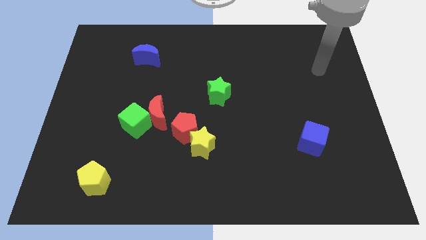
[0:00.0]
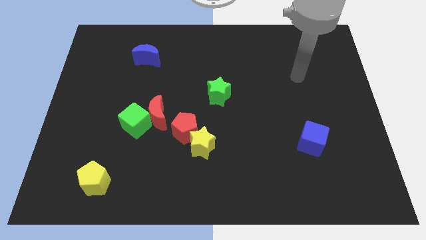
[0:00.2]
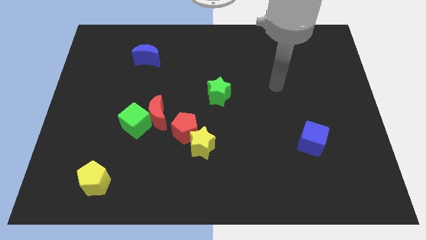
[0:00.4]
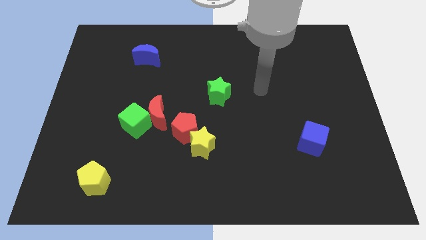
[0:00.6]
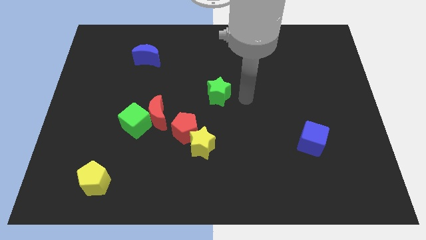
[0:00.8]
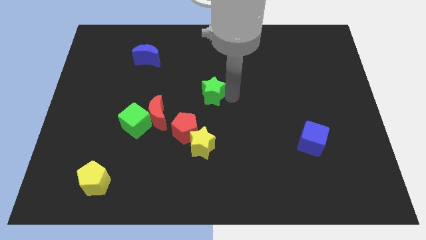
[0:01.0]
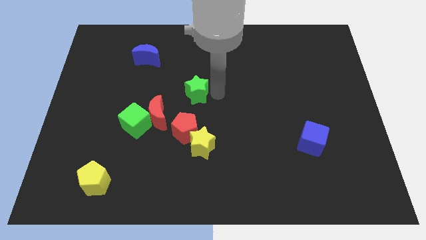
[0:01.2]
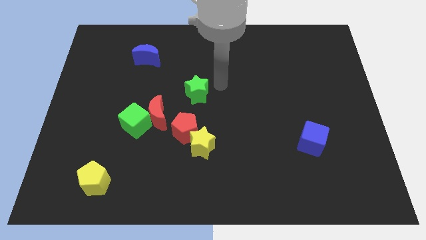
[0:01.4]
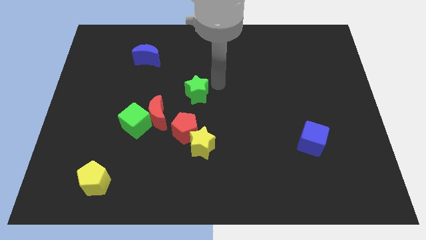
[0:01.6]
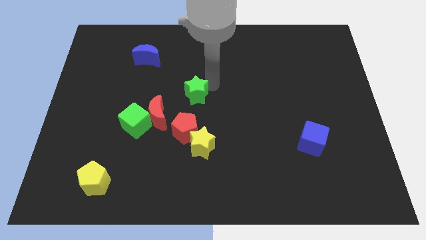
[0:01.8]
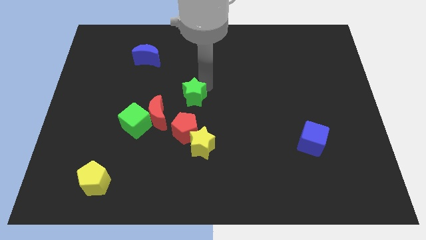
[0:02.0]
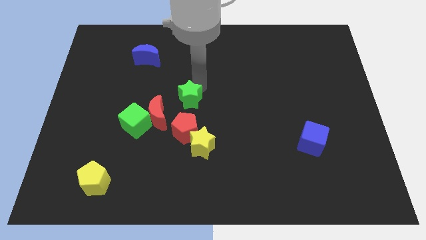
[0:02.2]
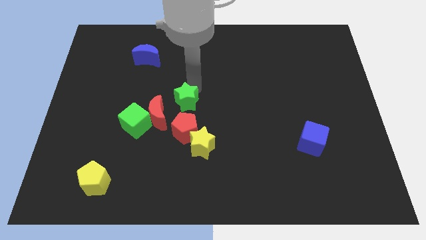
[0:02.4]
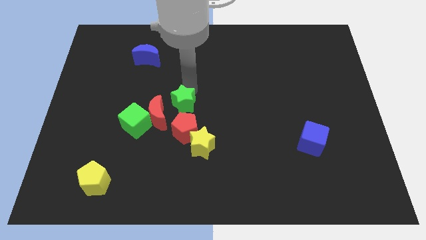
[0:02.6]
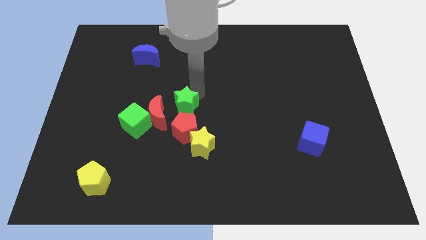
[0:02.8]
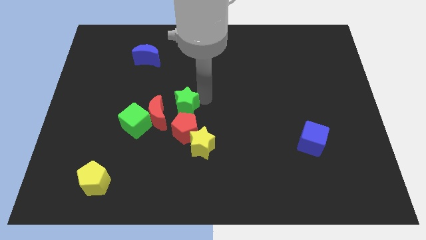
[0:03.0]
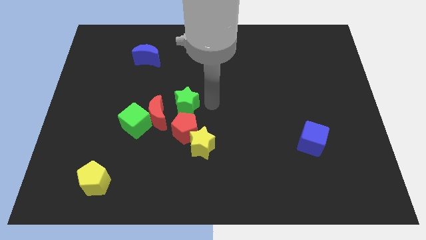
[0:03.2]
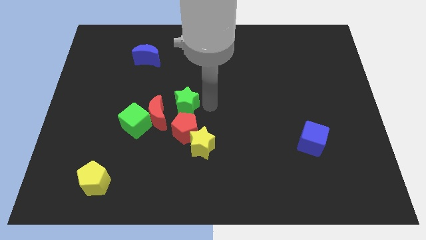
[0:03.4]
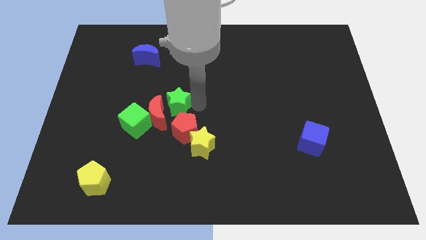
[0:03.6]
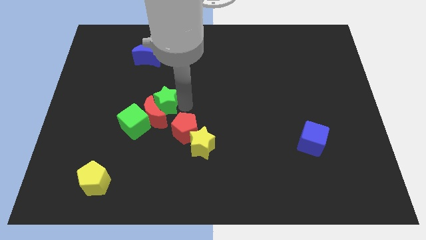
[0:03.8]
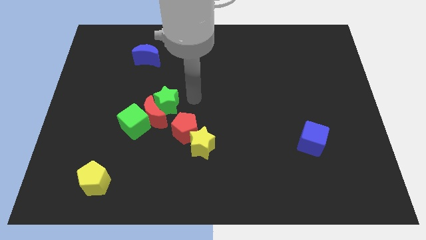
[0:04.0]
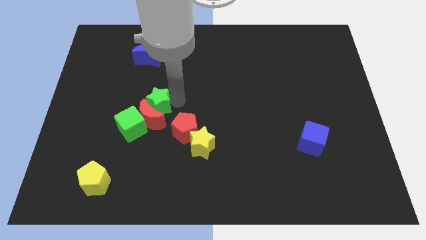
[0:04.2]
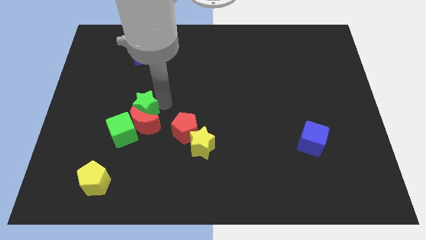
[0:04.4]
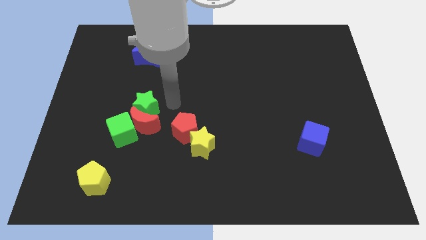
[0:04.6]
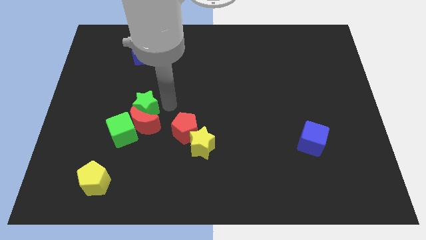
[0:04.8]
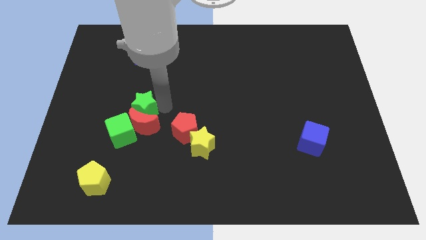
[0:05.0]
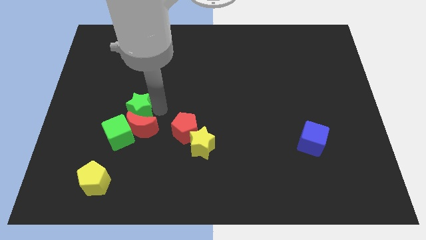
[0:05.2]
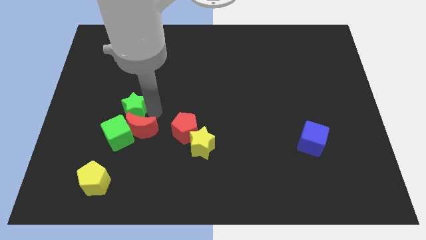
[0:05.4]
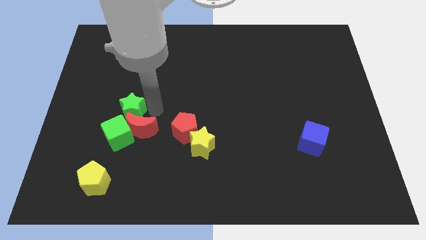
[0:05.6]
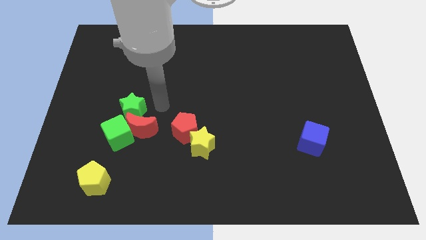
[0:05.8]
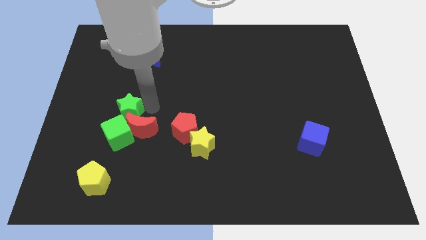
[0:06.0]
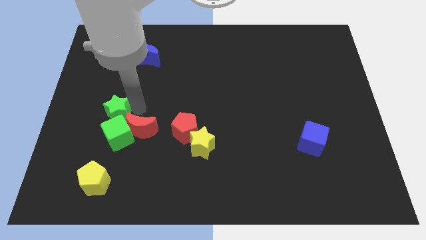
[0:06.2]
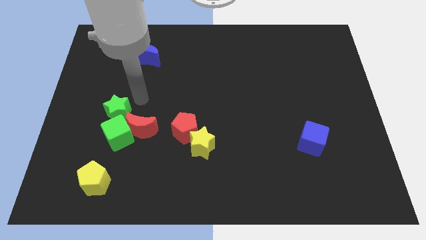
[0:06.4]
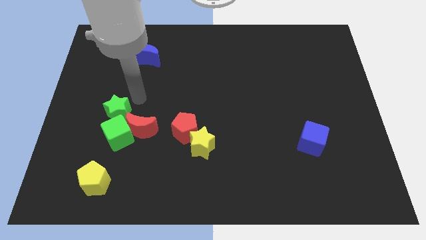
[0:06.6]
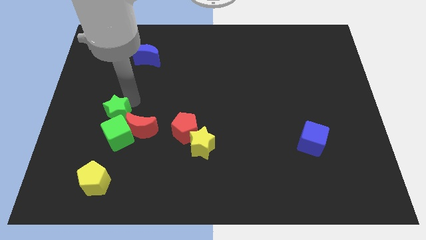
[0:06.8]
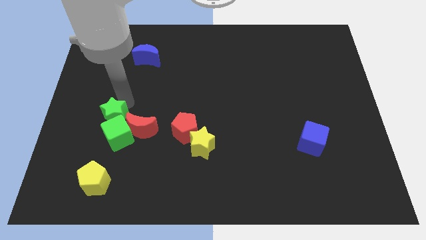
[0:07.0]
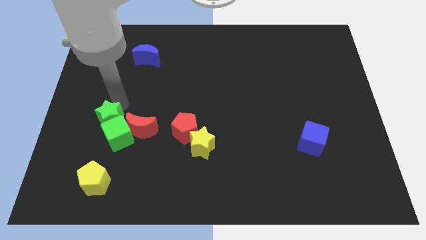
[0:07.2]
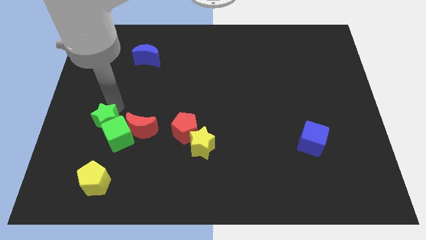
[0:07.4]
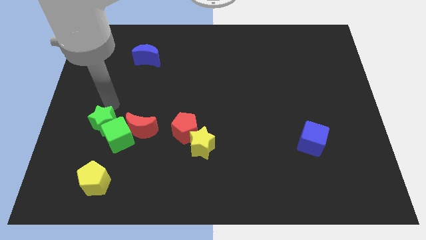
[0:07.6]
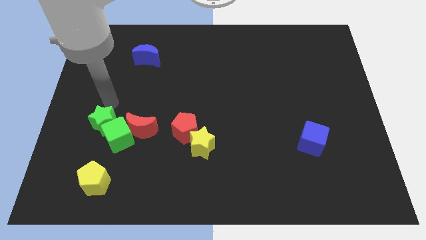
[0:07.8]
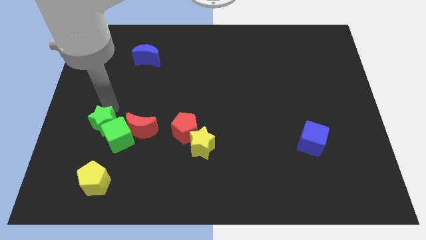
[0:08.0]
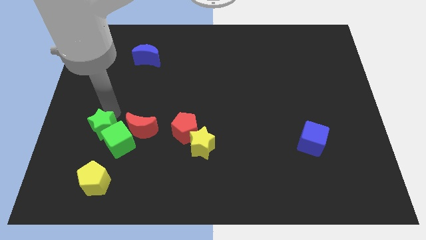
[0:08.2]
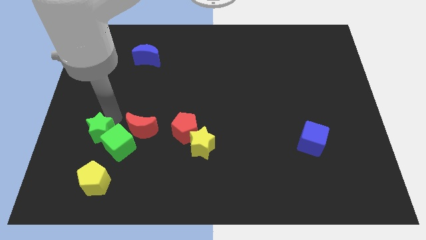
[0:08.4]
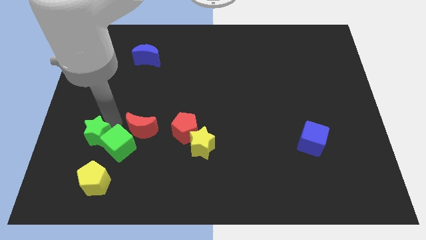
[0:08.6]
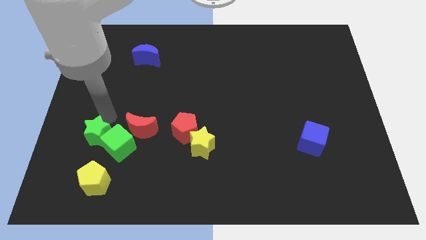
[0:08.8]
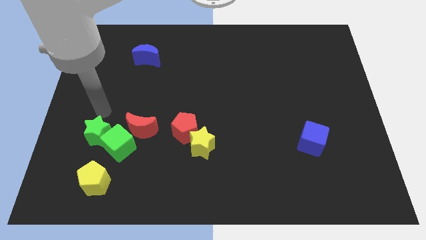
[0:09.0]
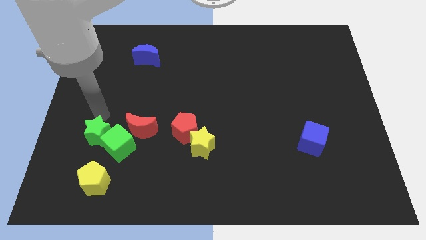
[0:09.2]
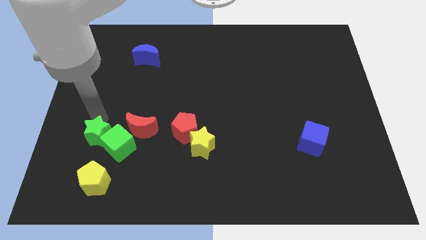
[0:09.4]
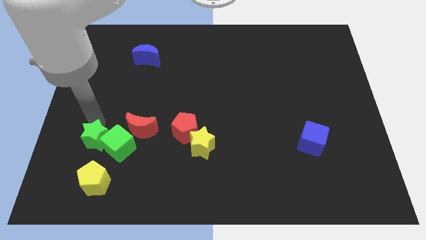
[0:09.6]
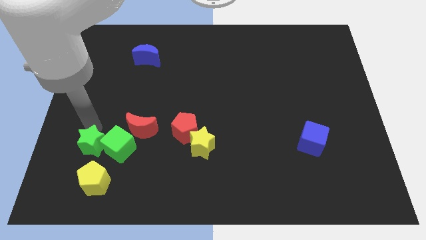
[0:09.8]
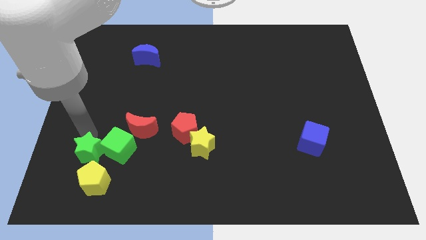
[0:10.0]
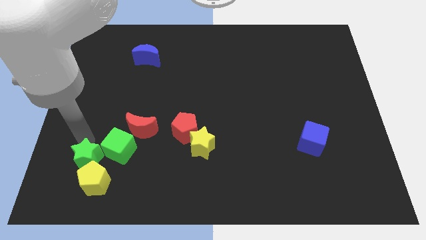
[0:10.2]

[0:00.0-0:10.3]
move the green star next to the yellow pentagon

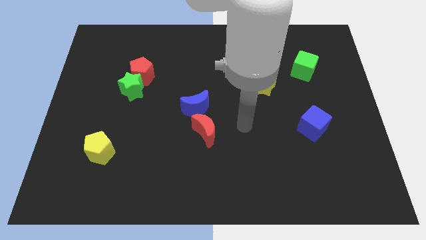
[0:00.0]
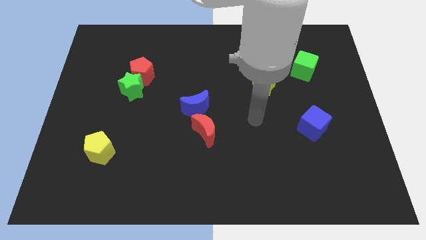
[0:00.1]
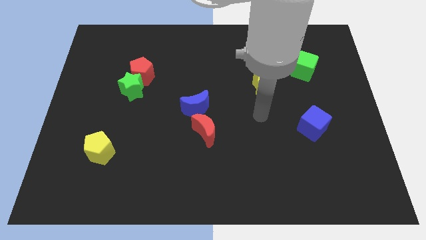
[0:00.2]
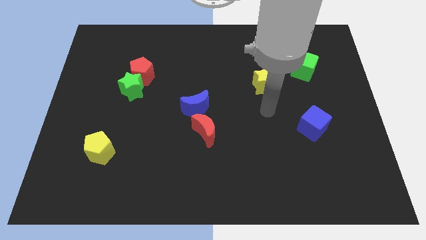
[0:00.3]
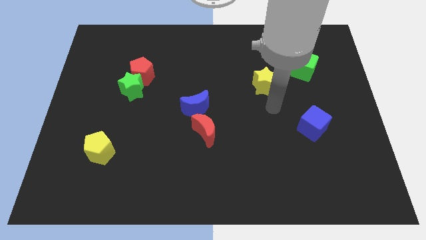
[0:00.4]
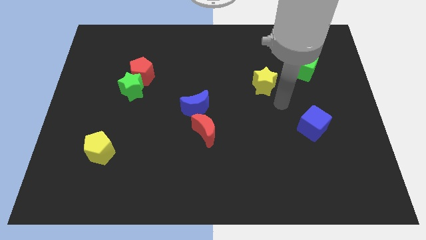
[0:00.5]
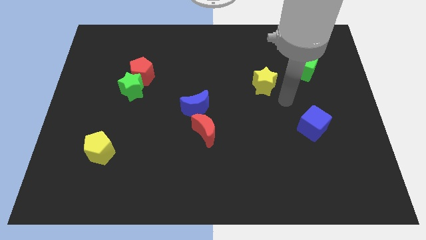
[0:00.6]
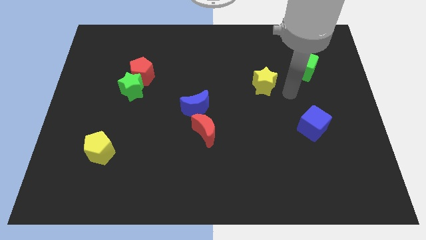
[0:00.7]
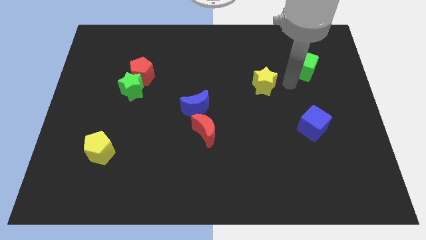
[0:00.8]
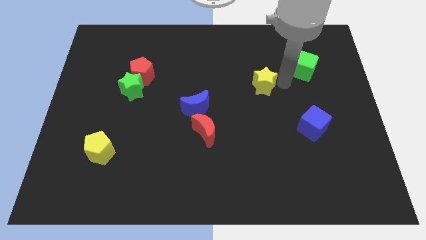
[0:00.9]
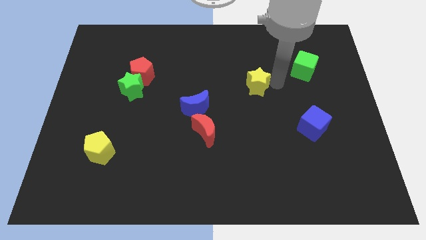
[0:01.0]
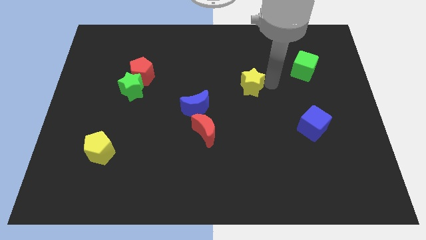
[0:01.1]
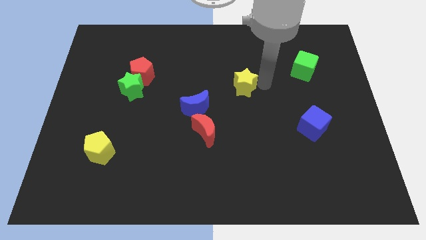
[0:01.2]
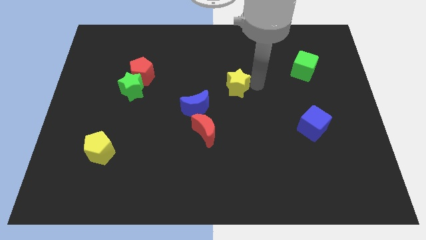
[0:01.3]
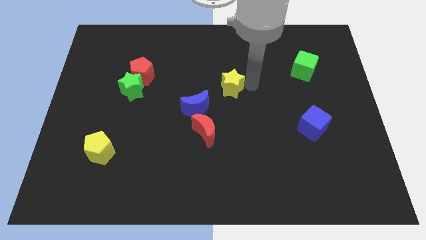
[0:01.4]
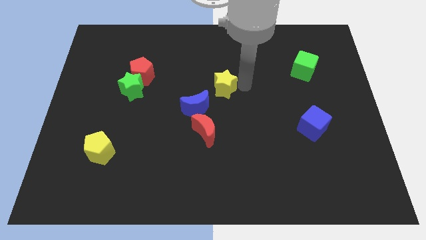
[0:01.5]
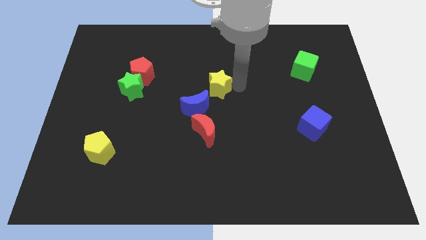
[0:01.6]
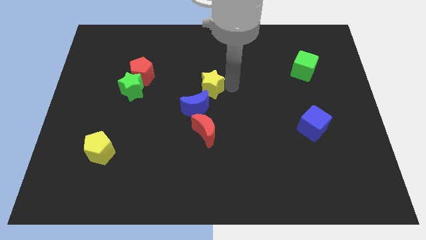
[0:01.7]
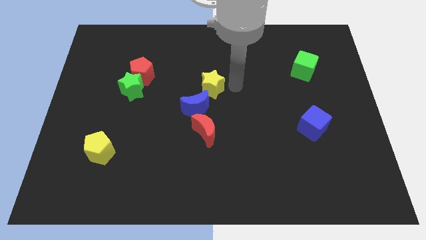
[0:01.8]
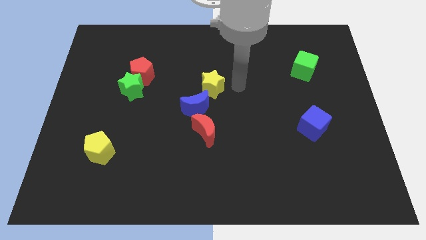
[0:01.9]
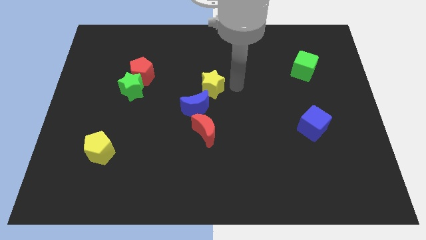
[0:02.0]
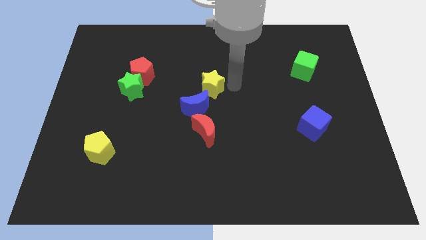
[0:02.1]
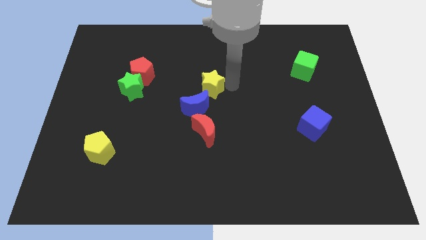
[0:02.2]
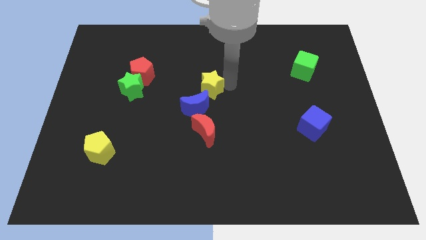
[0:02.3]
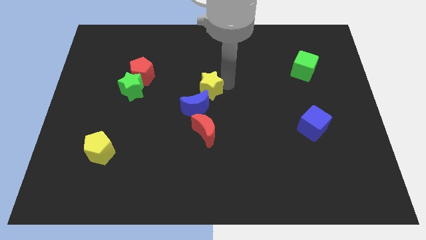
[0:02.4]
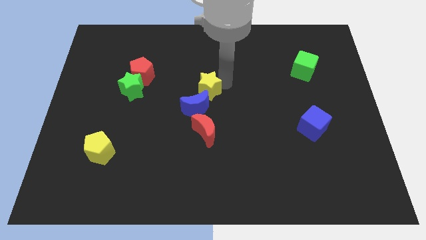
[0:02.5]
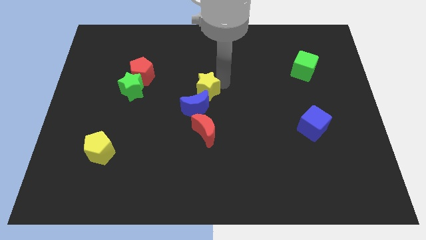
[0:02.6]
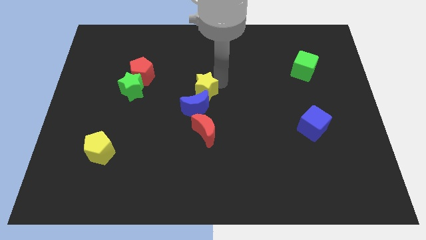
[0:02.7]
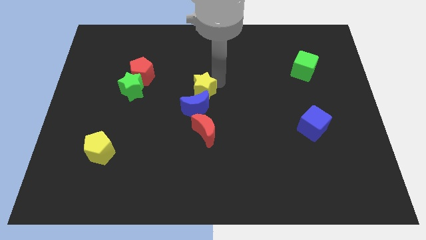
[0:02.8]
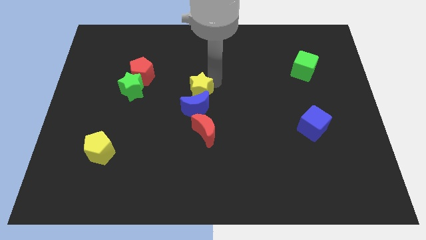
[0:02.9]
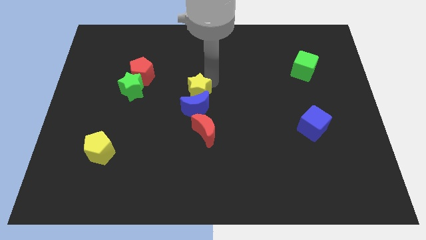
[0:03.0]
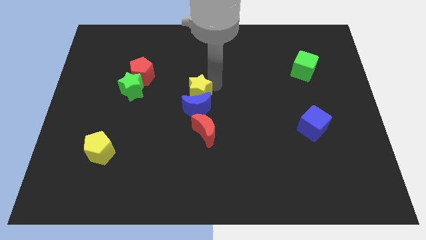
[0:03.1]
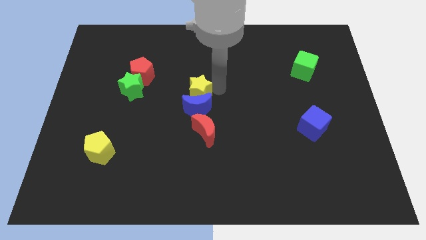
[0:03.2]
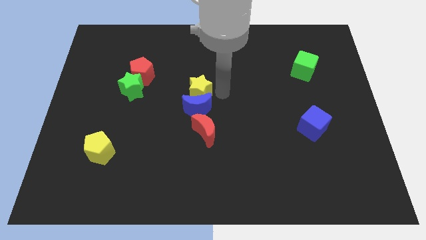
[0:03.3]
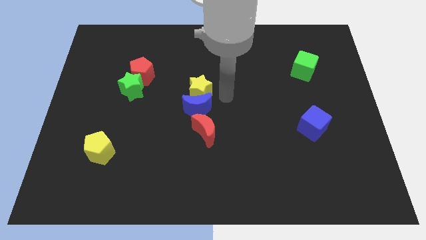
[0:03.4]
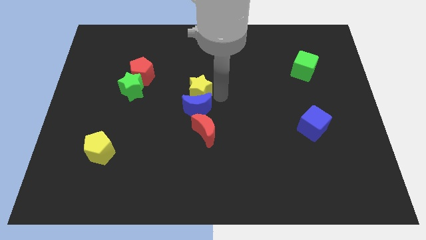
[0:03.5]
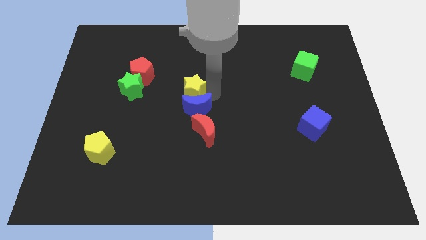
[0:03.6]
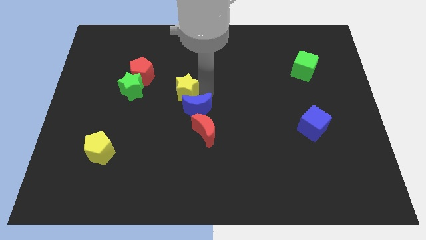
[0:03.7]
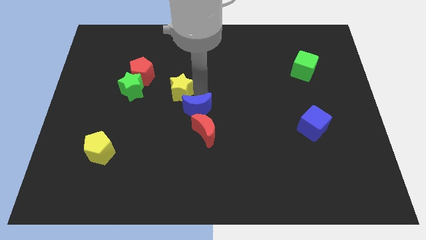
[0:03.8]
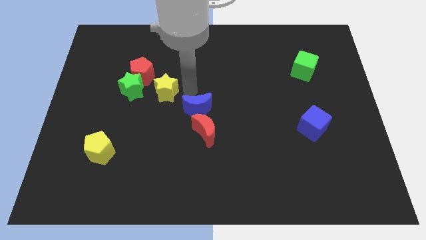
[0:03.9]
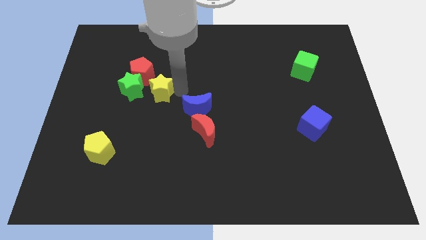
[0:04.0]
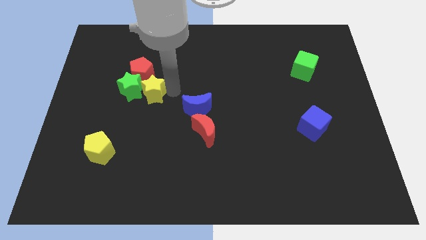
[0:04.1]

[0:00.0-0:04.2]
slide the yellow star next to the green star
